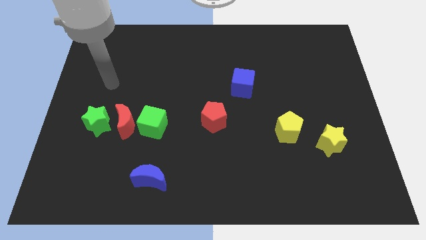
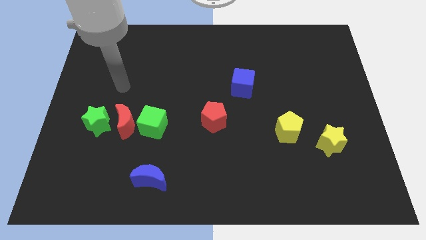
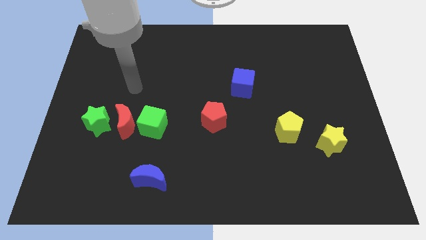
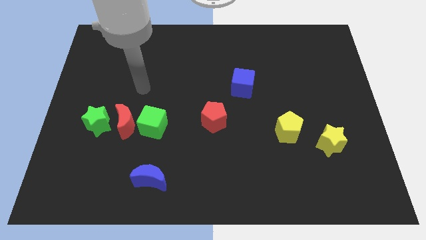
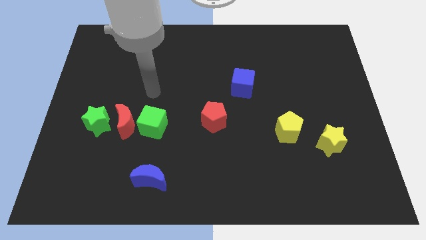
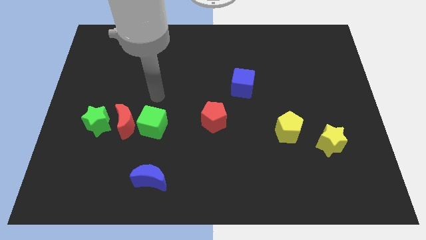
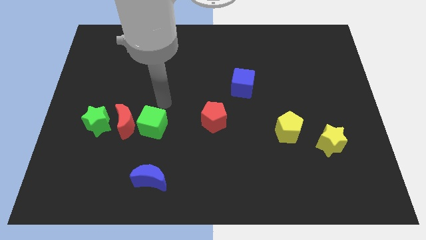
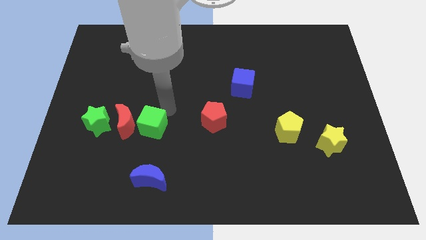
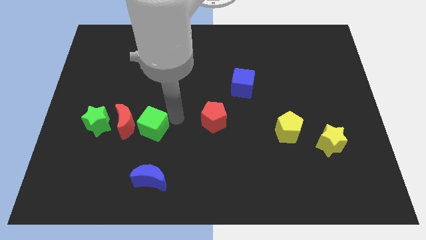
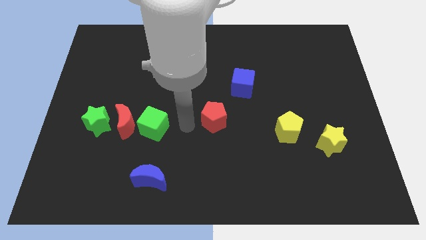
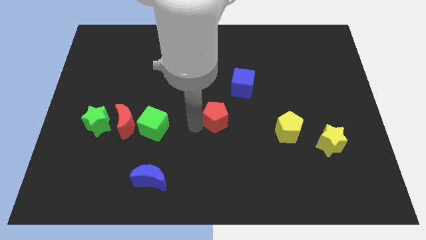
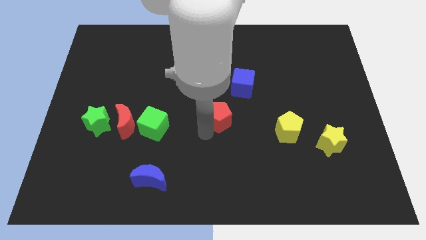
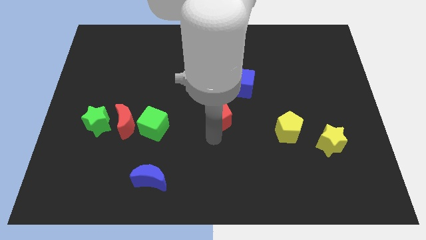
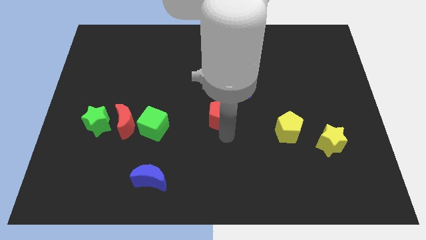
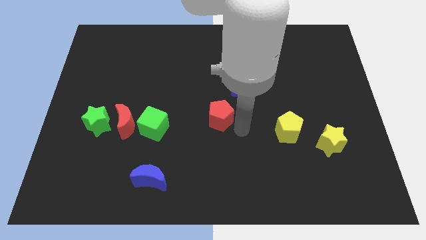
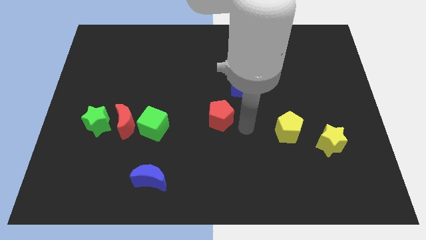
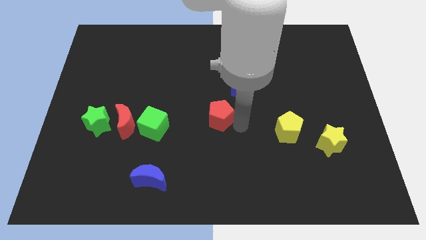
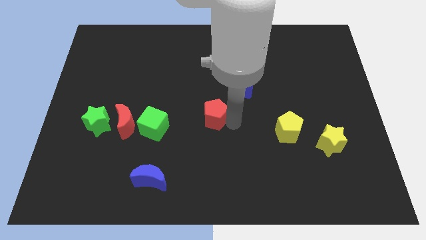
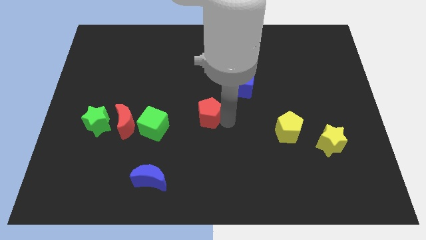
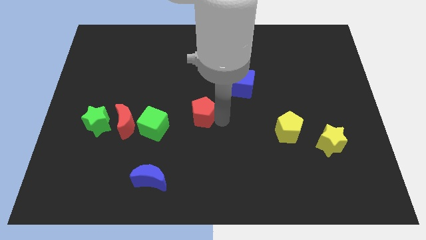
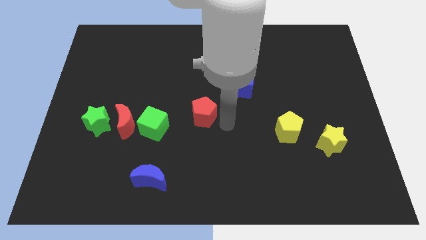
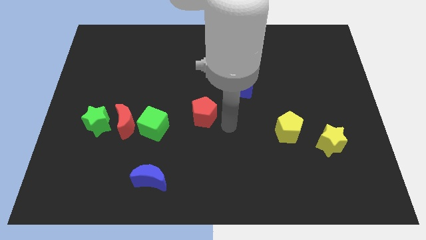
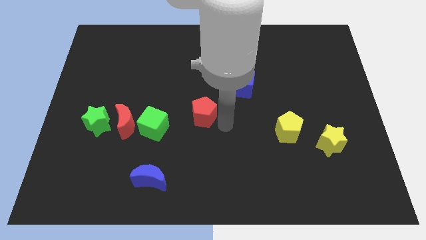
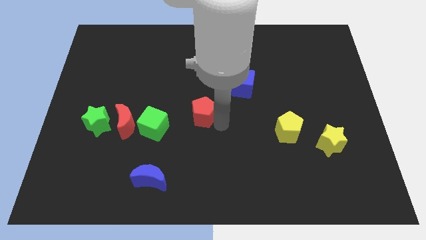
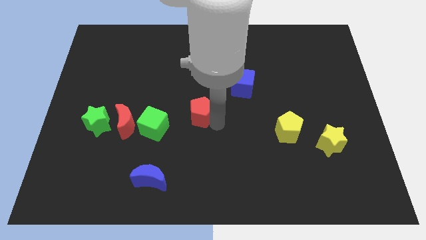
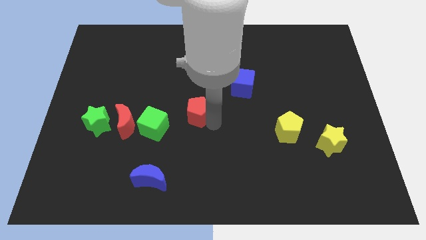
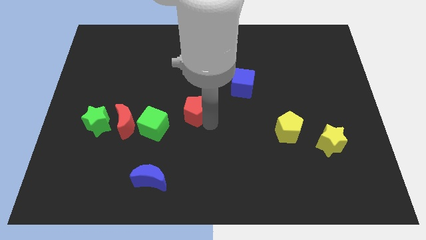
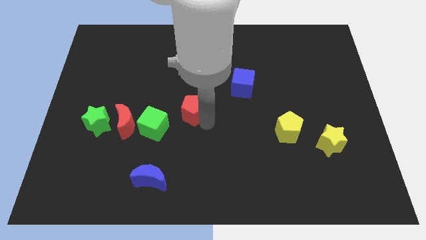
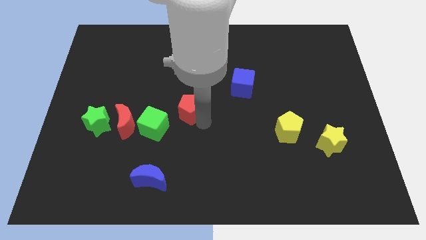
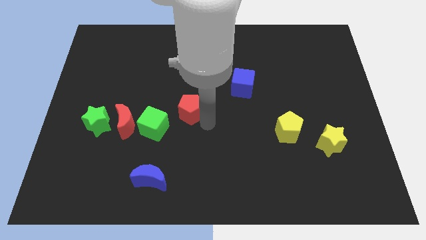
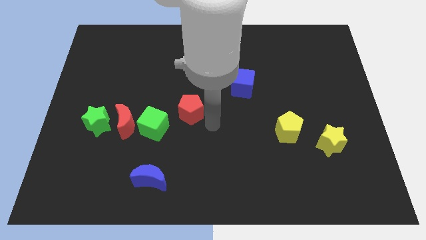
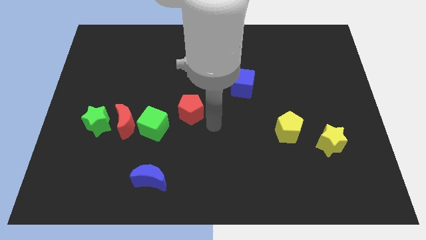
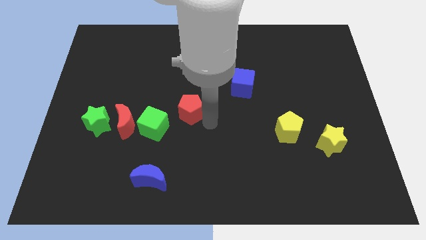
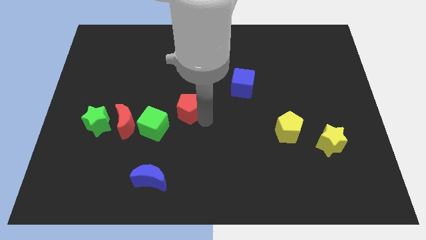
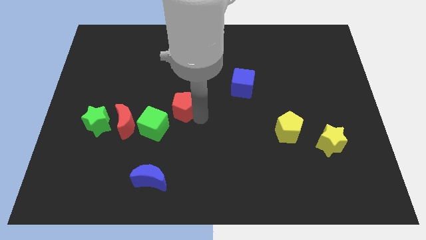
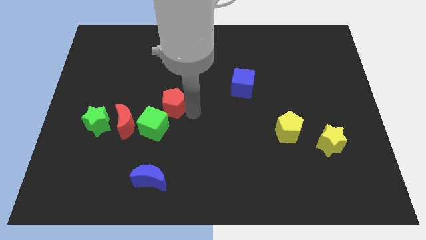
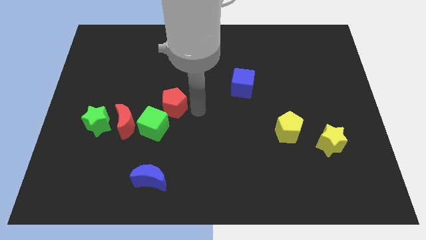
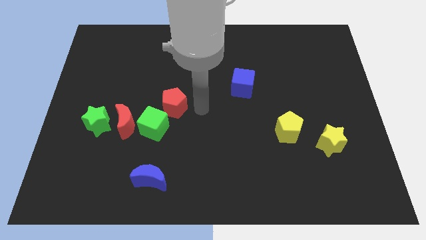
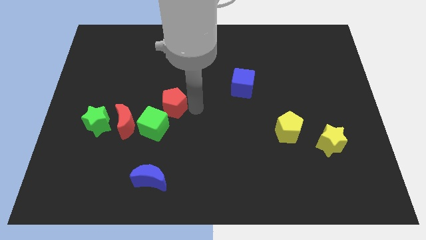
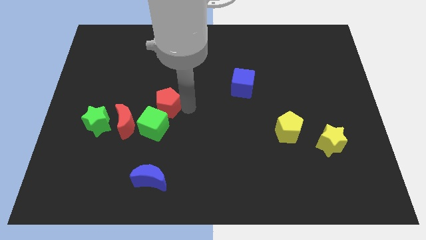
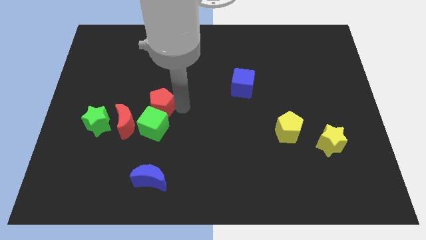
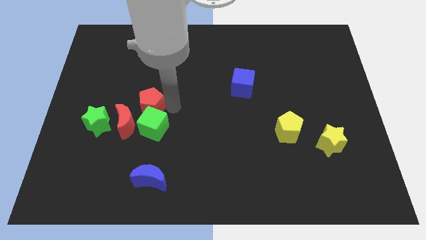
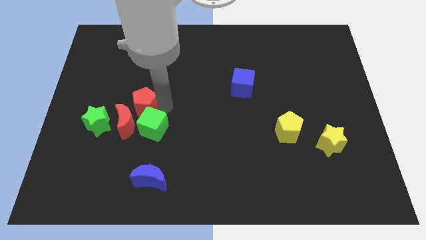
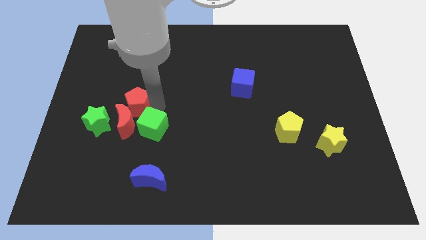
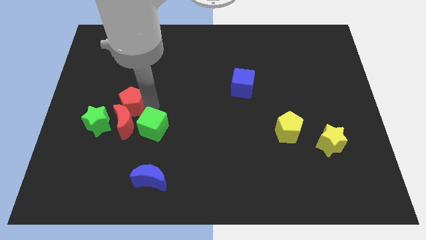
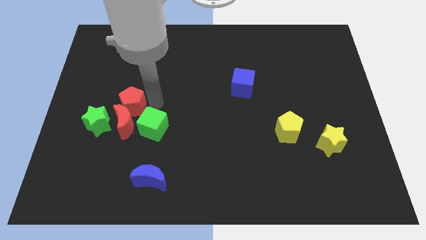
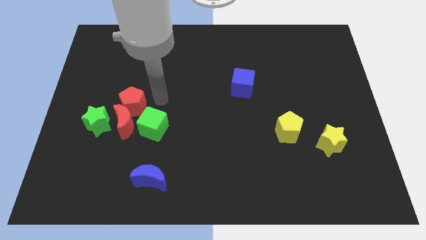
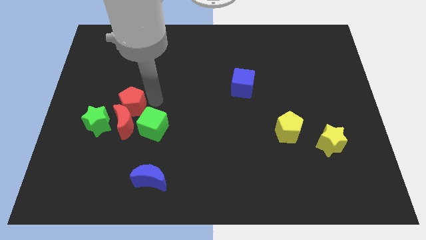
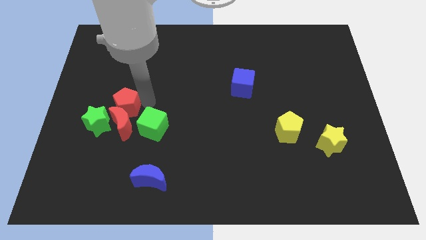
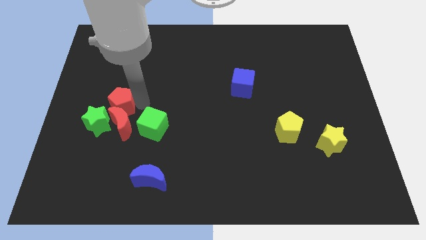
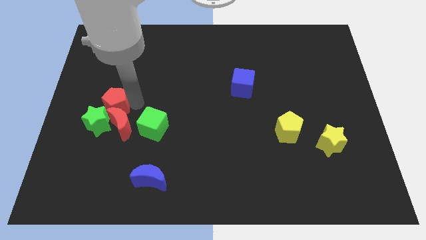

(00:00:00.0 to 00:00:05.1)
push the red pentagon to the green star

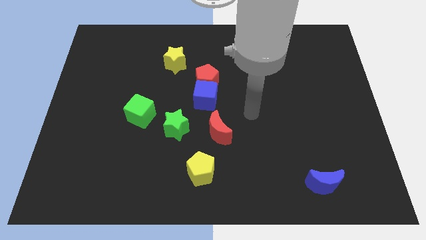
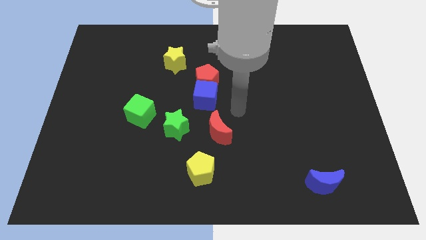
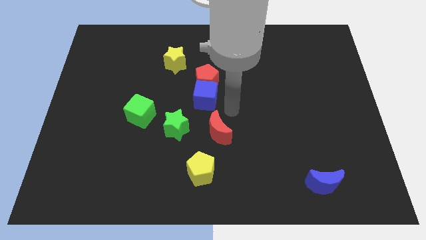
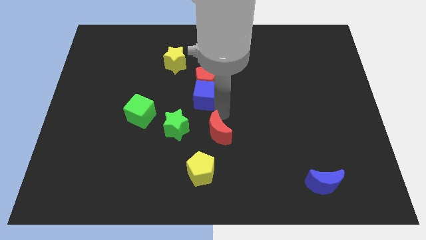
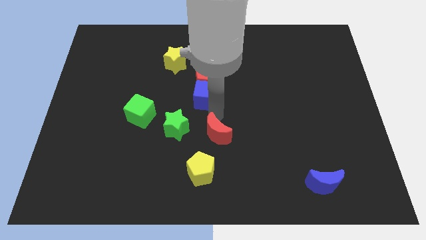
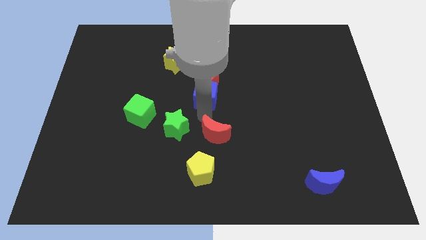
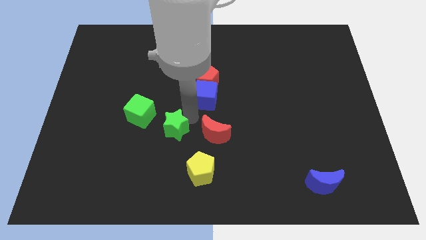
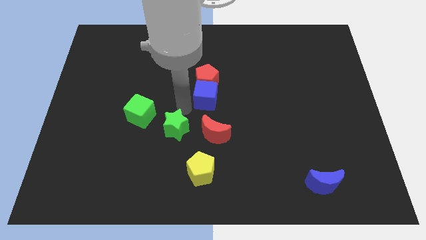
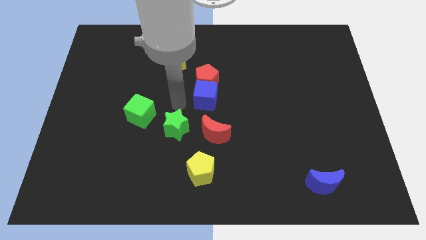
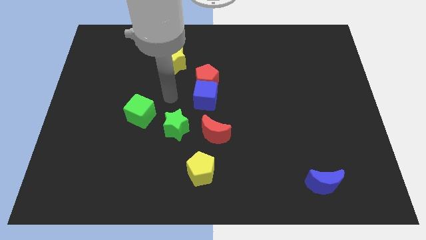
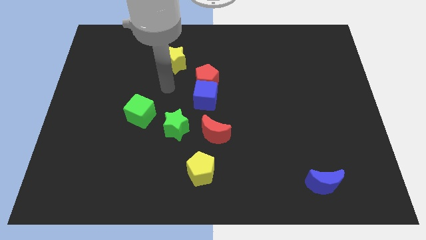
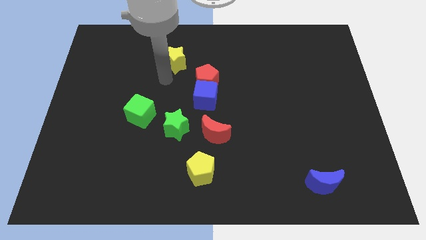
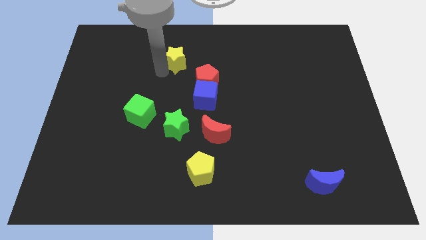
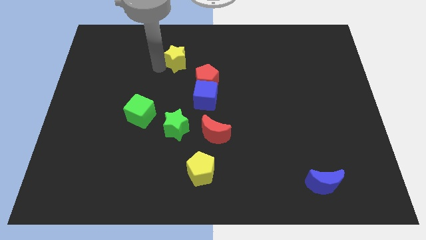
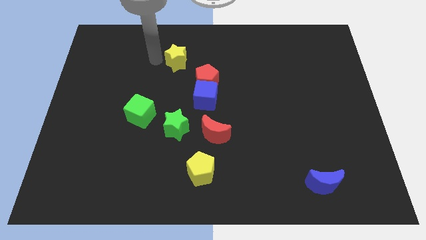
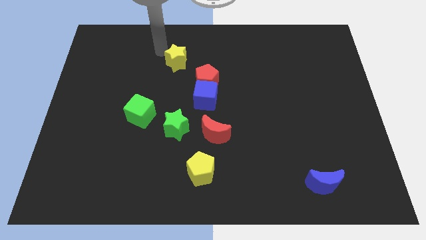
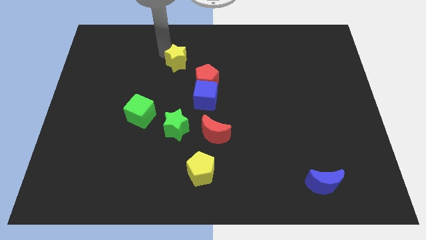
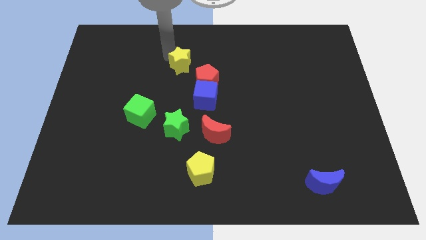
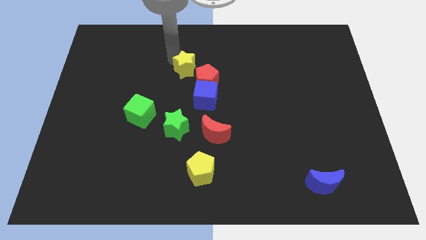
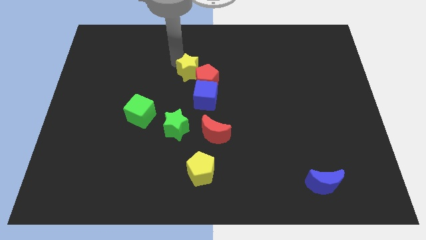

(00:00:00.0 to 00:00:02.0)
push the yellow star close to the red pentagon

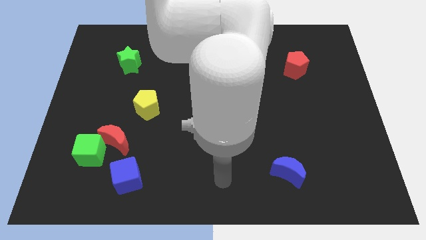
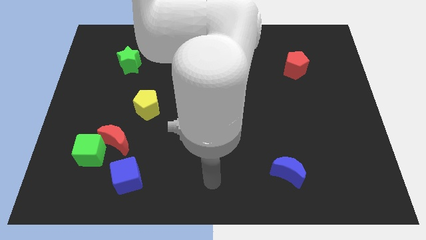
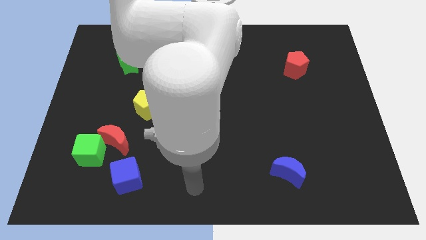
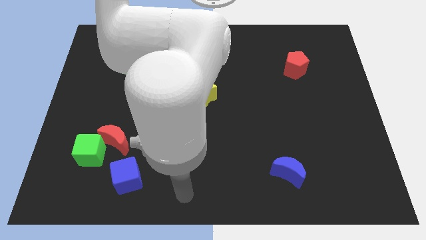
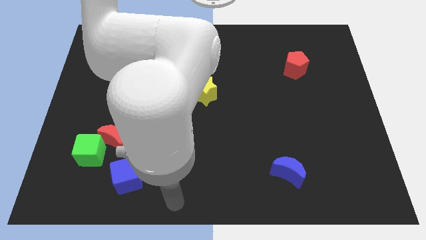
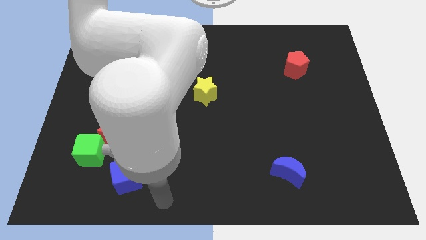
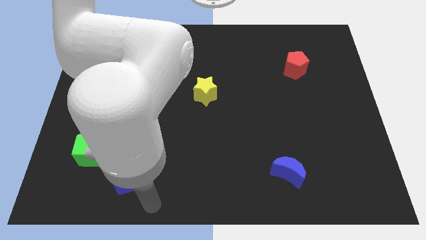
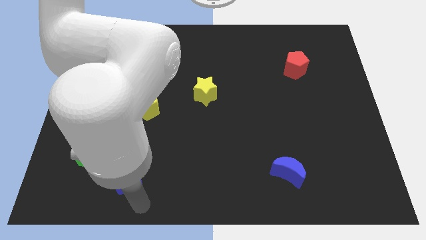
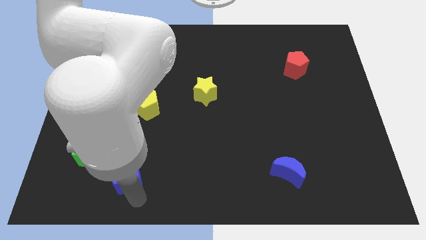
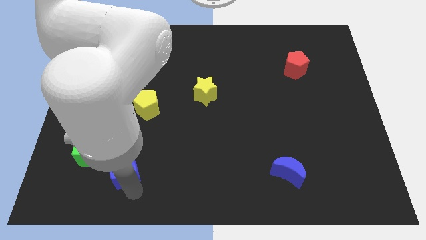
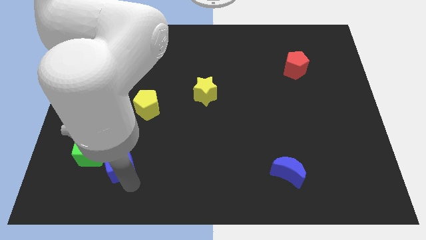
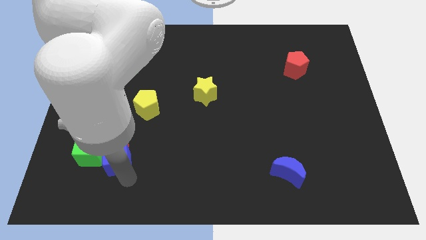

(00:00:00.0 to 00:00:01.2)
move the blue cube close to the red moon
